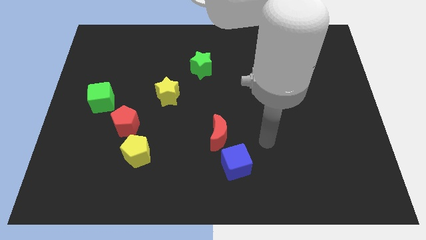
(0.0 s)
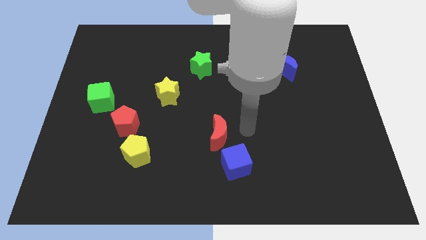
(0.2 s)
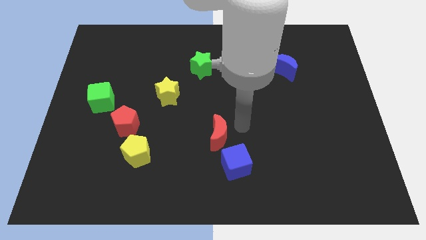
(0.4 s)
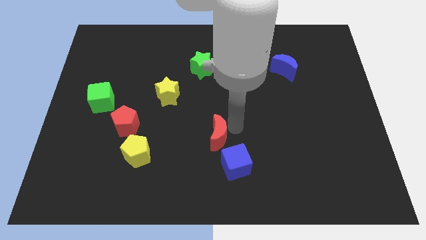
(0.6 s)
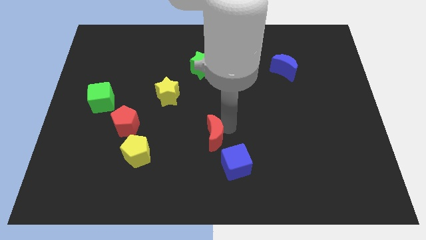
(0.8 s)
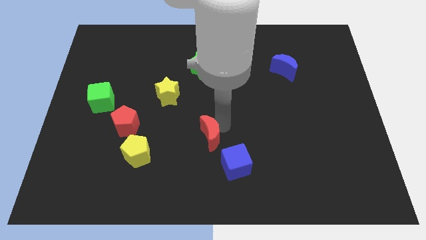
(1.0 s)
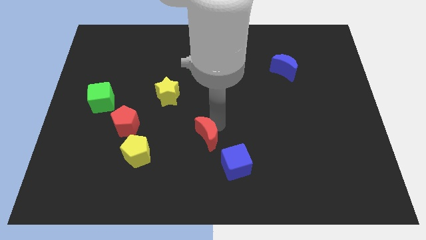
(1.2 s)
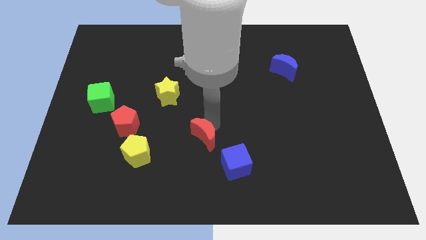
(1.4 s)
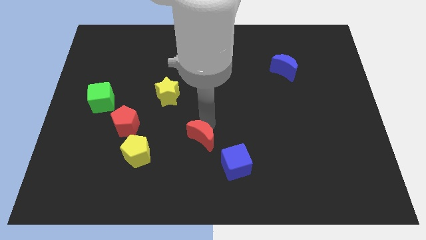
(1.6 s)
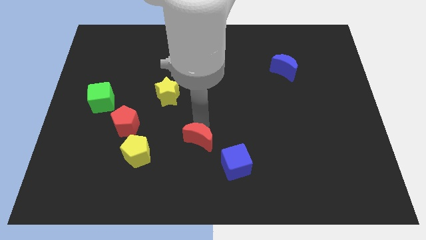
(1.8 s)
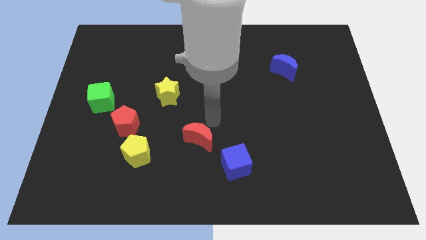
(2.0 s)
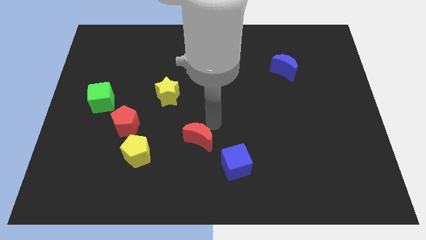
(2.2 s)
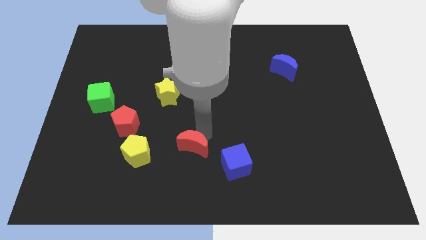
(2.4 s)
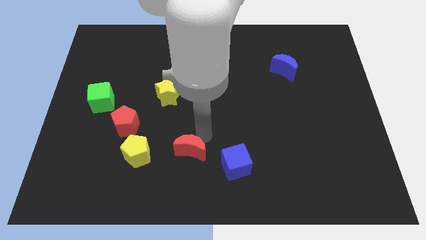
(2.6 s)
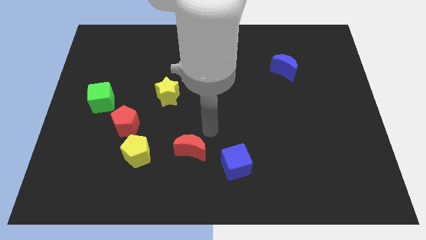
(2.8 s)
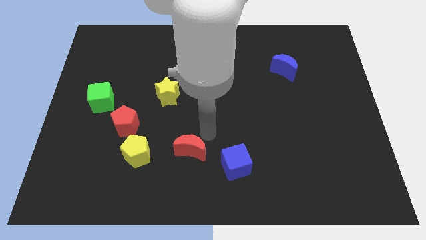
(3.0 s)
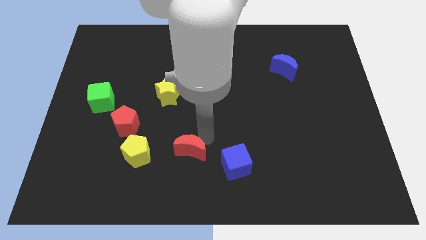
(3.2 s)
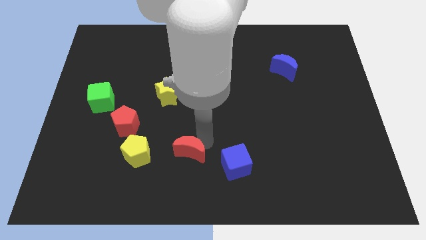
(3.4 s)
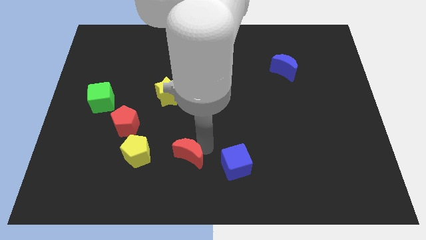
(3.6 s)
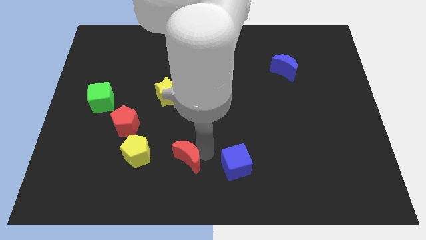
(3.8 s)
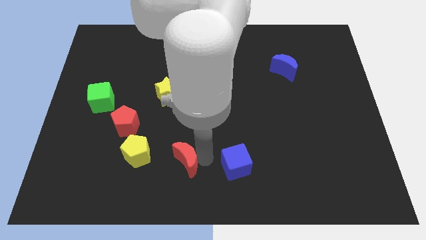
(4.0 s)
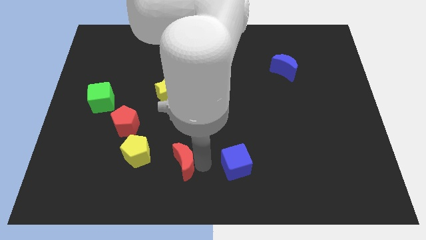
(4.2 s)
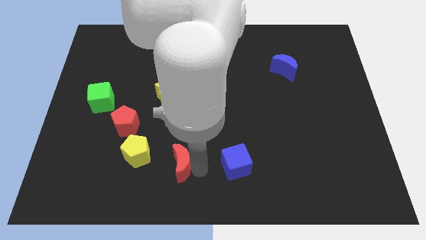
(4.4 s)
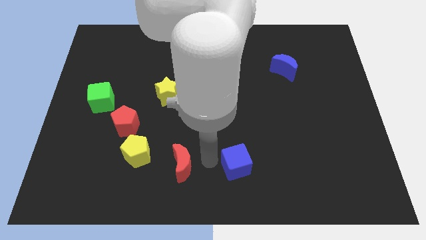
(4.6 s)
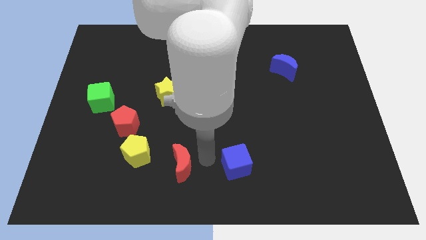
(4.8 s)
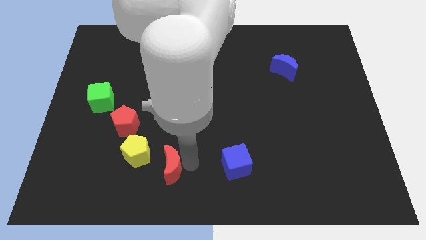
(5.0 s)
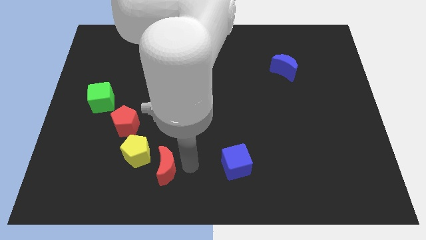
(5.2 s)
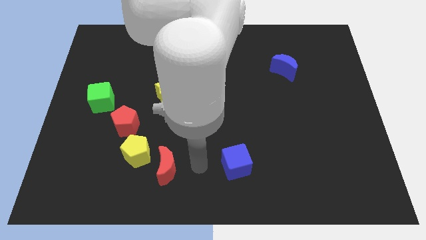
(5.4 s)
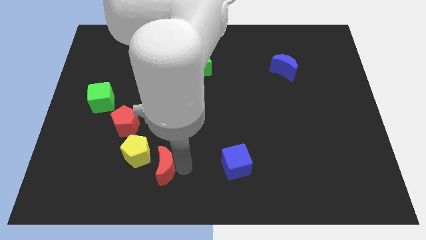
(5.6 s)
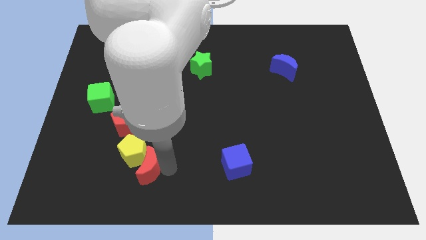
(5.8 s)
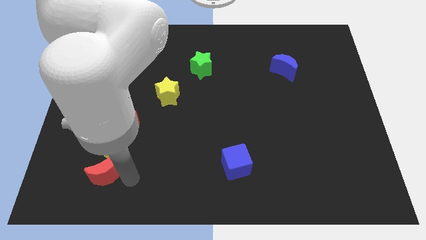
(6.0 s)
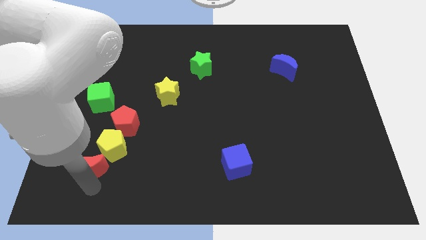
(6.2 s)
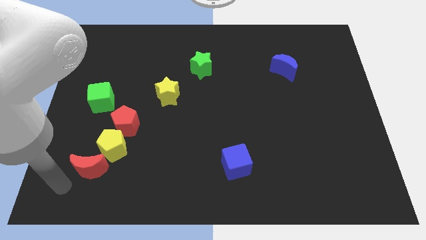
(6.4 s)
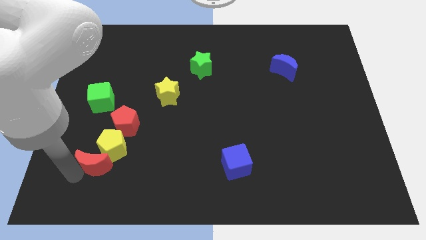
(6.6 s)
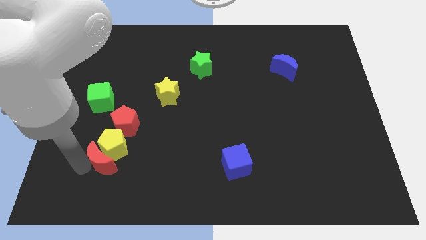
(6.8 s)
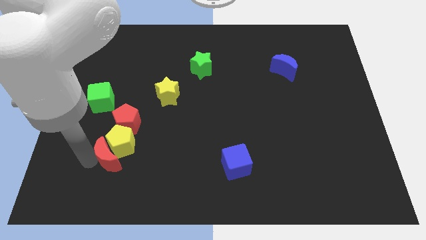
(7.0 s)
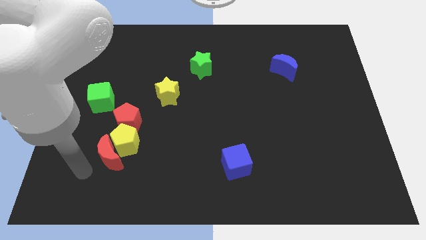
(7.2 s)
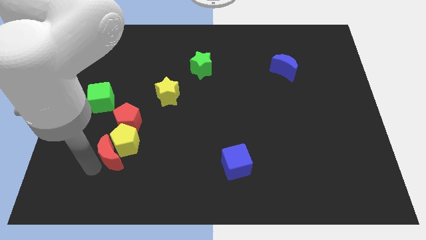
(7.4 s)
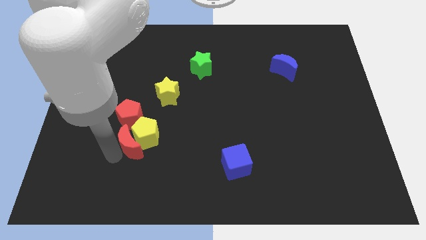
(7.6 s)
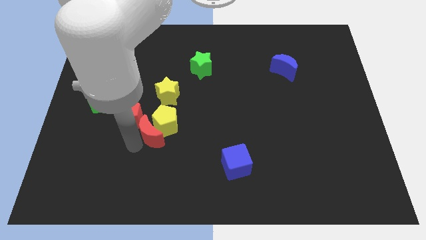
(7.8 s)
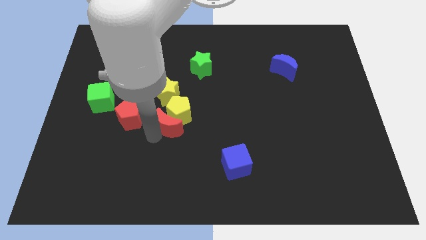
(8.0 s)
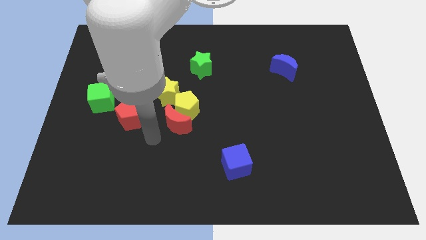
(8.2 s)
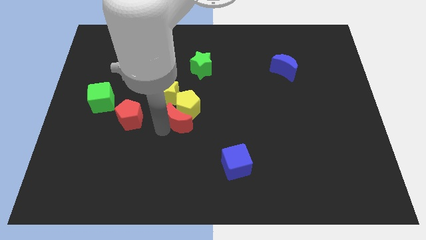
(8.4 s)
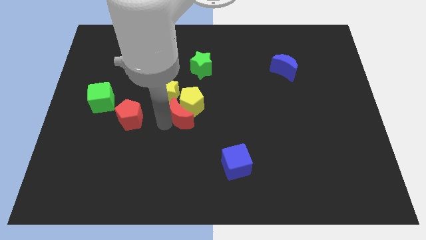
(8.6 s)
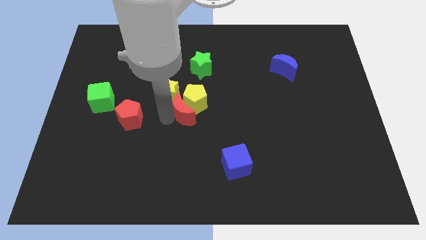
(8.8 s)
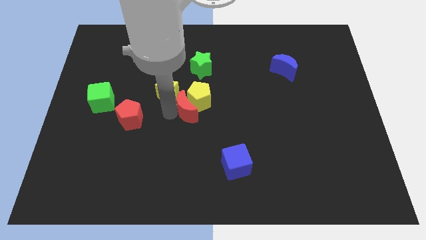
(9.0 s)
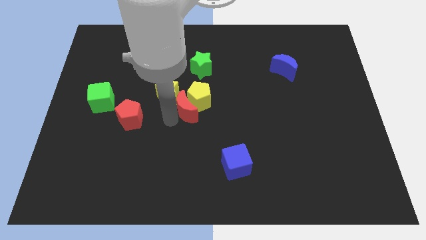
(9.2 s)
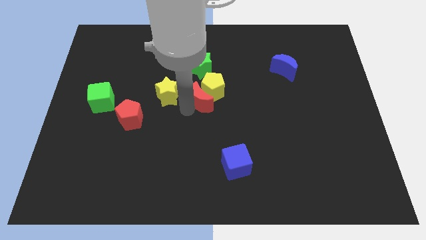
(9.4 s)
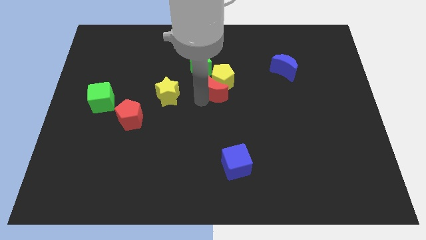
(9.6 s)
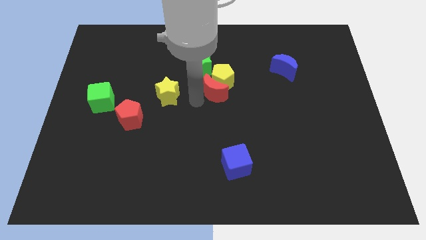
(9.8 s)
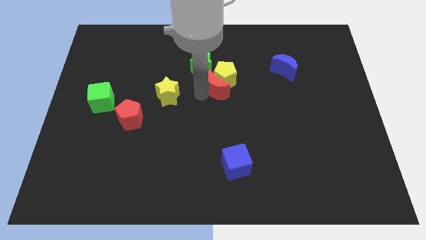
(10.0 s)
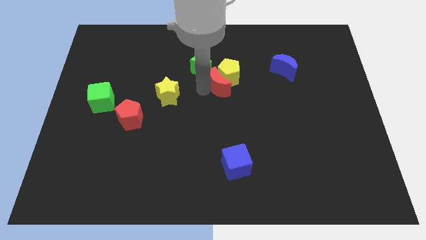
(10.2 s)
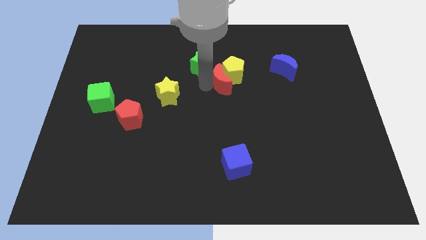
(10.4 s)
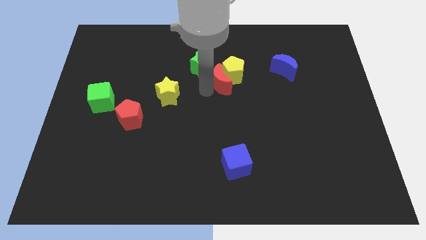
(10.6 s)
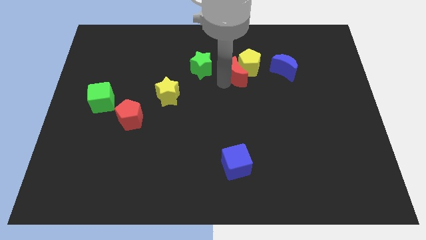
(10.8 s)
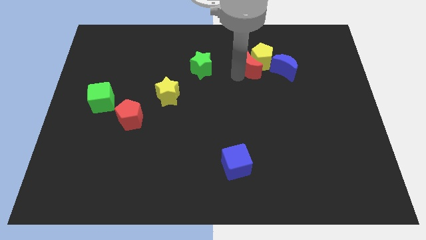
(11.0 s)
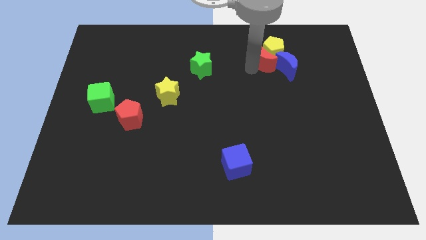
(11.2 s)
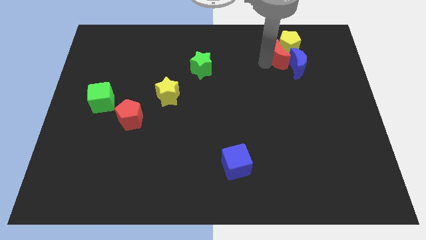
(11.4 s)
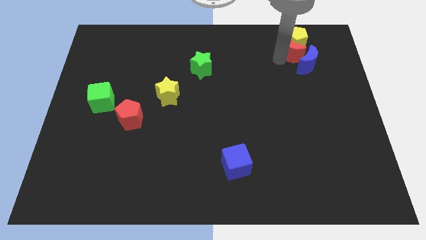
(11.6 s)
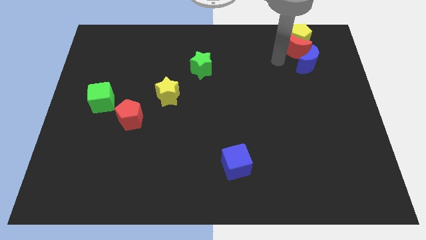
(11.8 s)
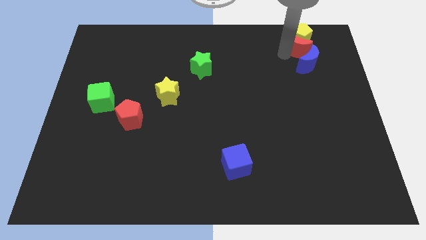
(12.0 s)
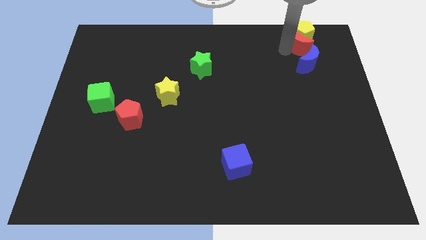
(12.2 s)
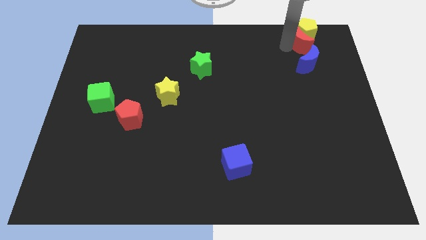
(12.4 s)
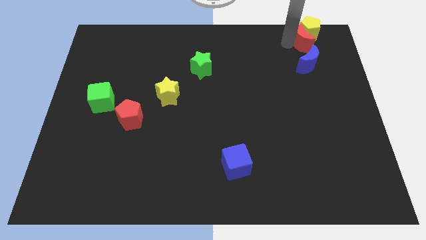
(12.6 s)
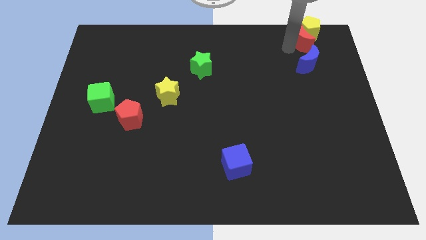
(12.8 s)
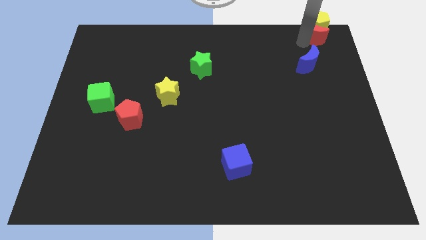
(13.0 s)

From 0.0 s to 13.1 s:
slide the red moon to the top right of the board
